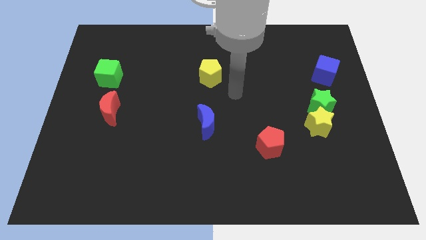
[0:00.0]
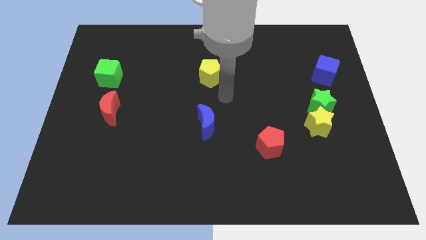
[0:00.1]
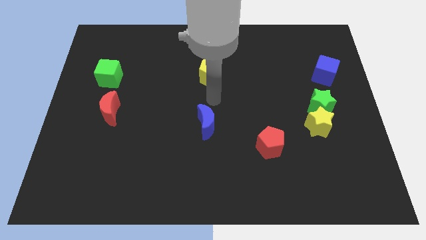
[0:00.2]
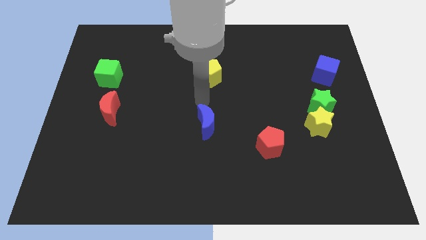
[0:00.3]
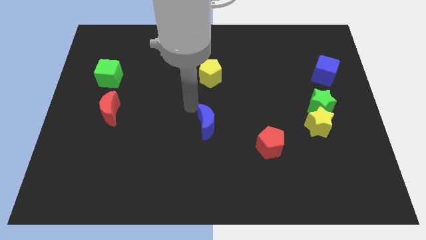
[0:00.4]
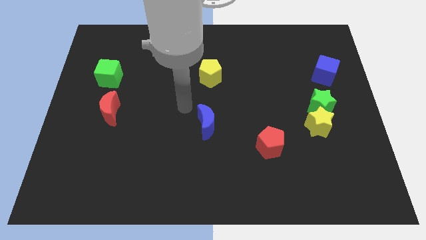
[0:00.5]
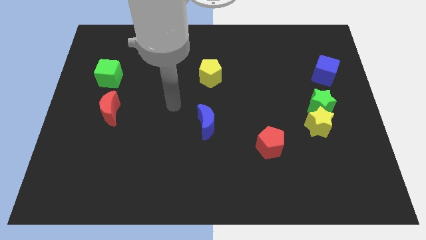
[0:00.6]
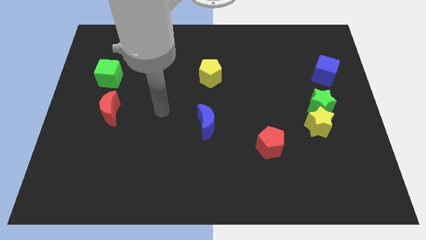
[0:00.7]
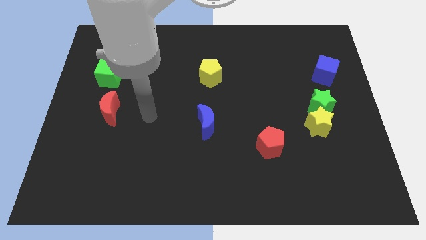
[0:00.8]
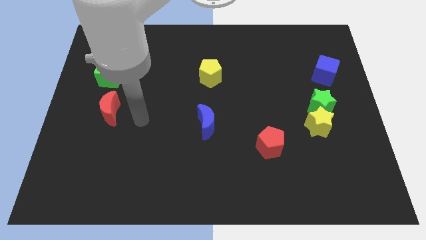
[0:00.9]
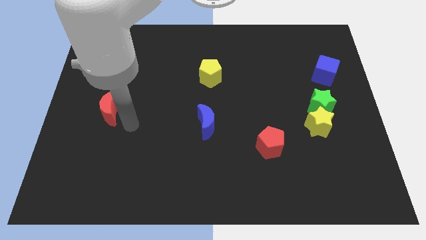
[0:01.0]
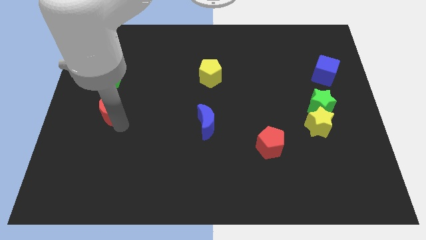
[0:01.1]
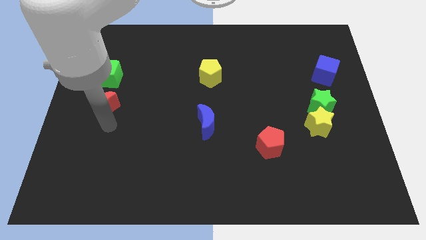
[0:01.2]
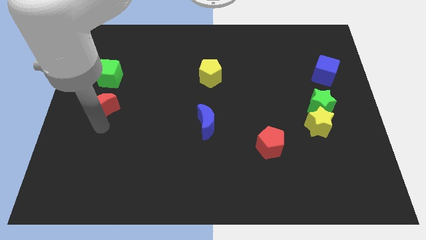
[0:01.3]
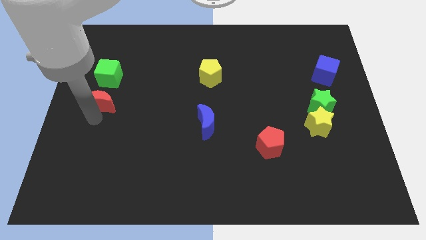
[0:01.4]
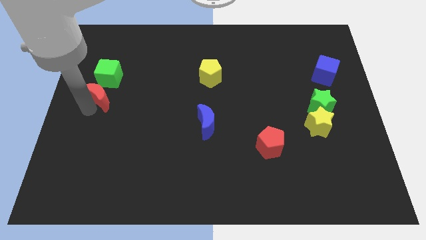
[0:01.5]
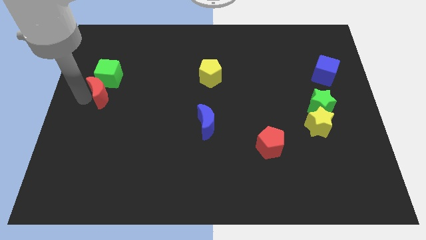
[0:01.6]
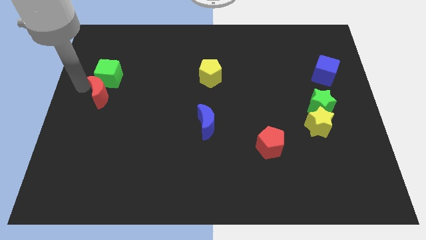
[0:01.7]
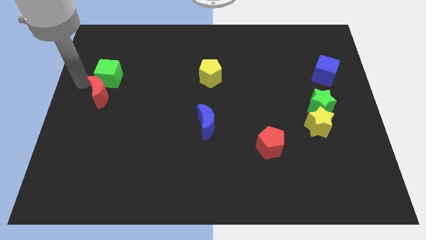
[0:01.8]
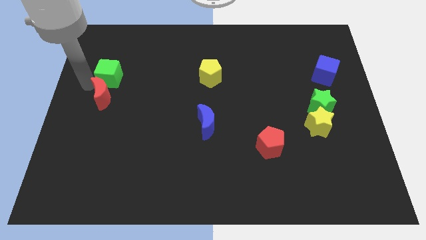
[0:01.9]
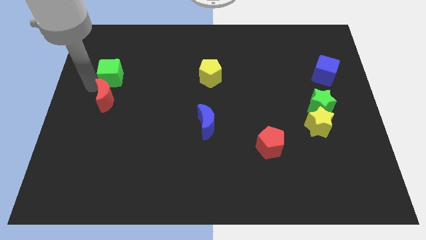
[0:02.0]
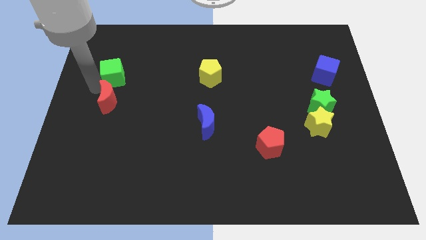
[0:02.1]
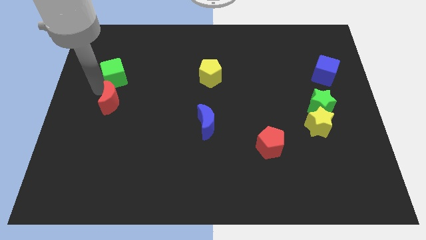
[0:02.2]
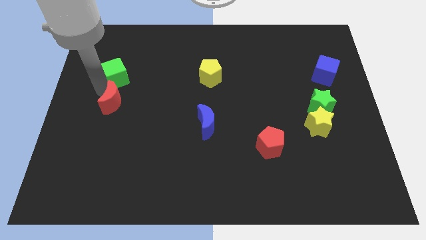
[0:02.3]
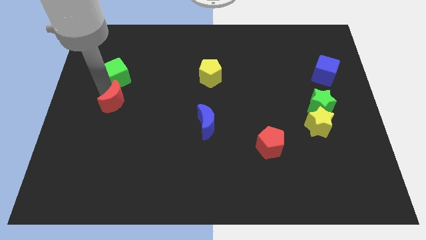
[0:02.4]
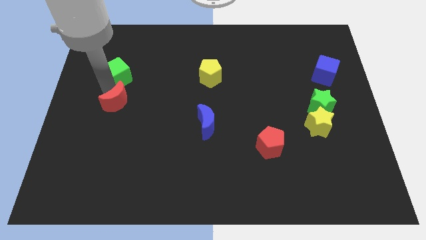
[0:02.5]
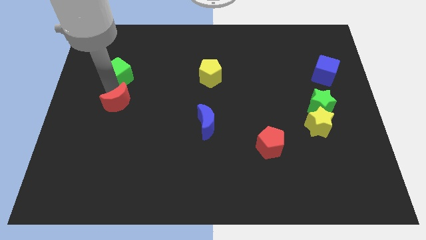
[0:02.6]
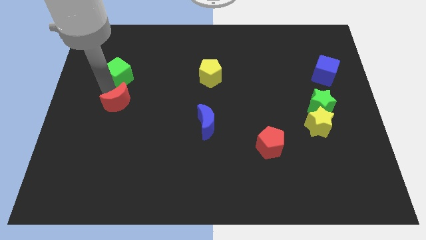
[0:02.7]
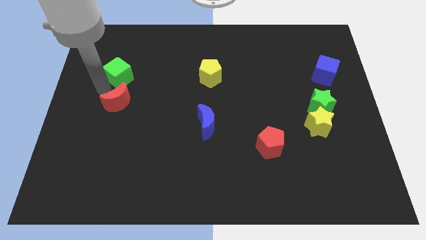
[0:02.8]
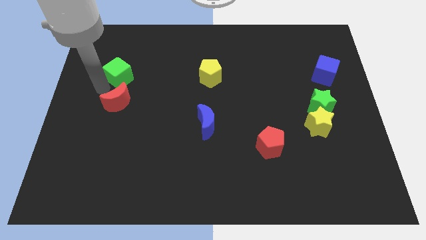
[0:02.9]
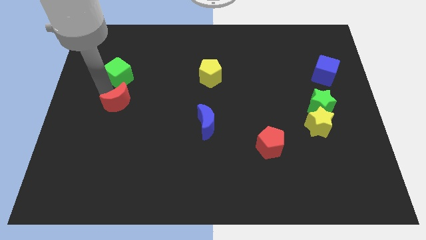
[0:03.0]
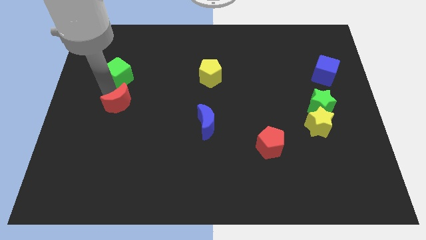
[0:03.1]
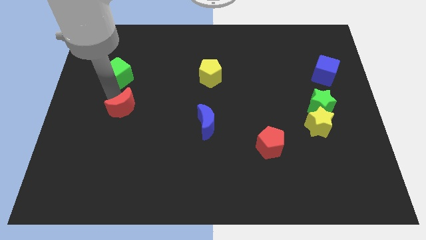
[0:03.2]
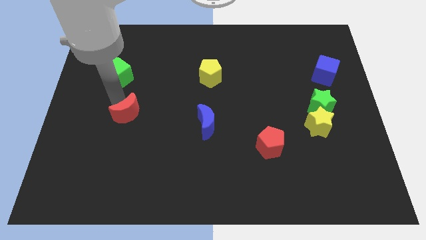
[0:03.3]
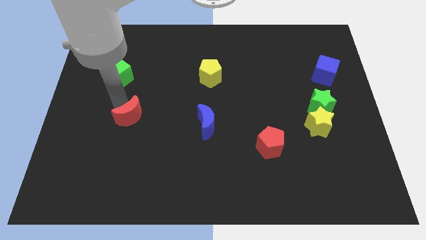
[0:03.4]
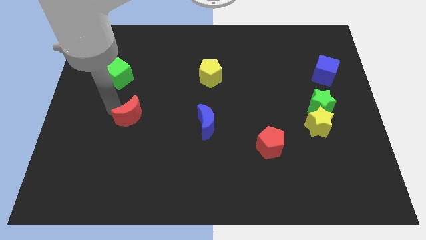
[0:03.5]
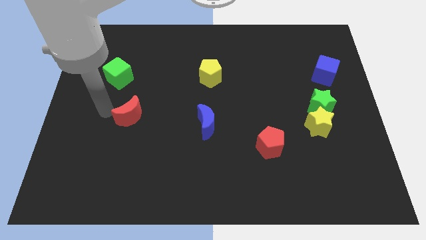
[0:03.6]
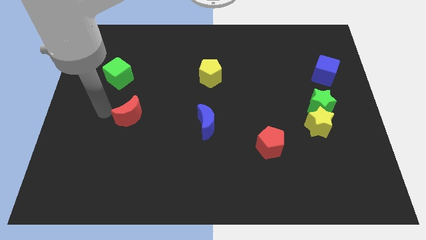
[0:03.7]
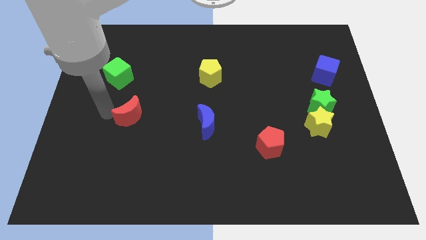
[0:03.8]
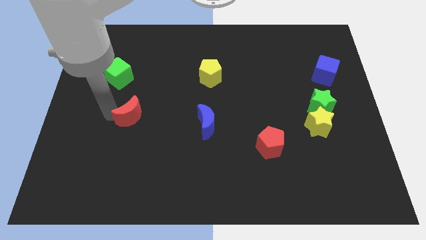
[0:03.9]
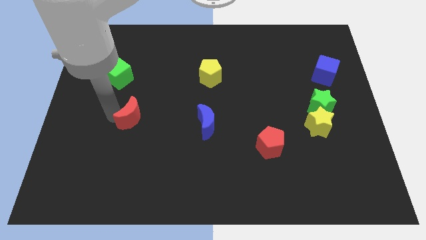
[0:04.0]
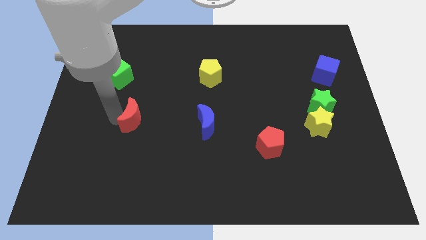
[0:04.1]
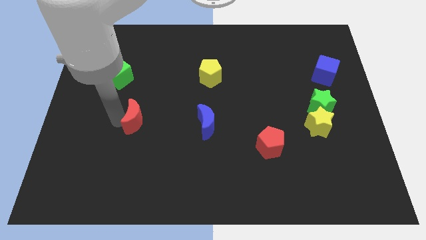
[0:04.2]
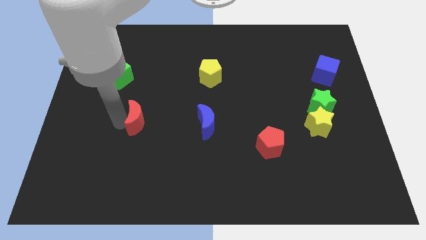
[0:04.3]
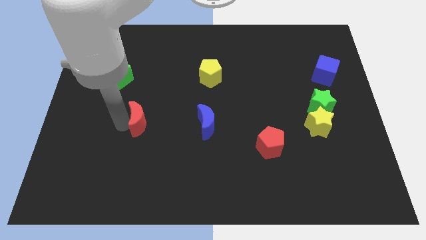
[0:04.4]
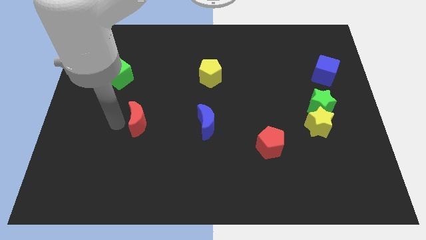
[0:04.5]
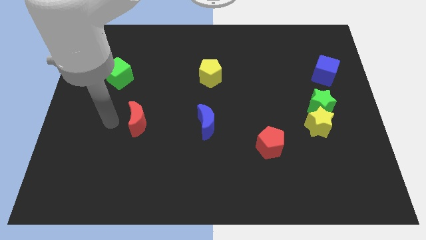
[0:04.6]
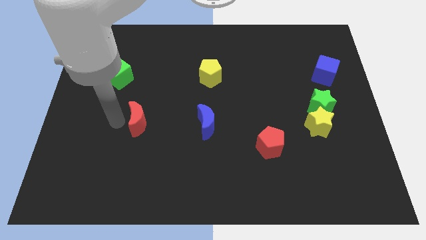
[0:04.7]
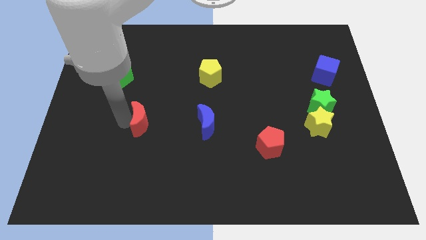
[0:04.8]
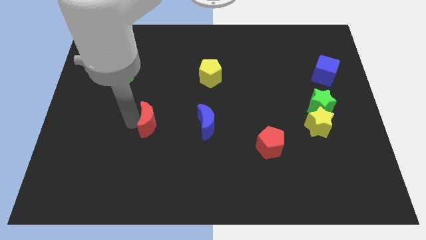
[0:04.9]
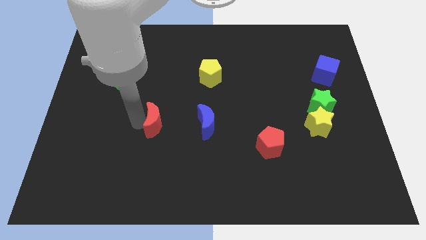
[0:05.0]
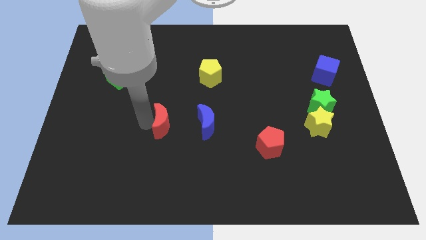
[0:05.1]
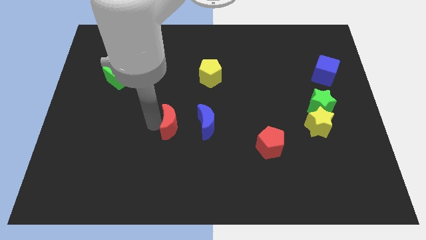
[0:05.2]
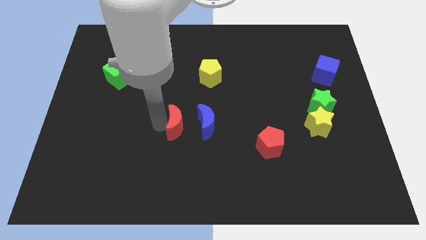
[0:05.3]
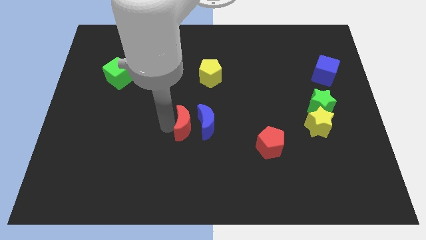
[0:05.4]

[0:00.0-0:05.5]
put the red moon close to the blue moon

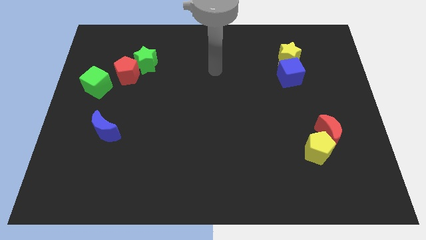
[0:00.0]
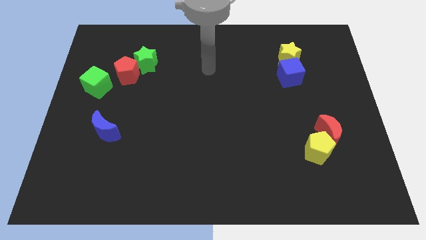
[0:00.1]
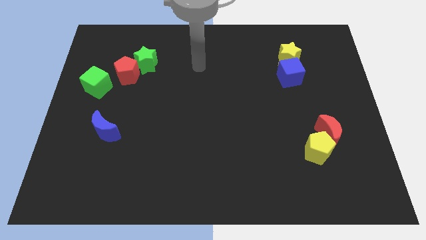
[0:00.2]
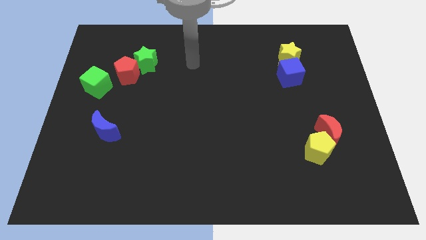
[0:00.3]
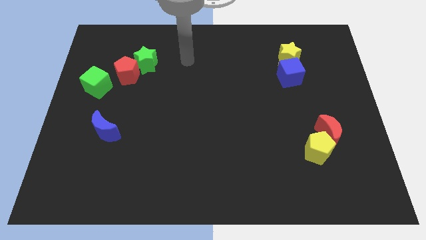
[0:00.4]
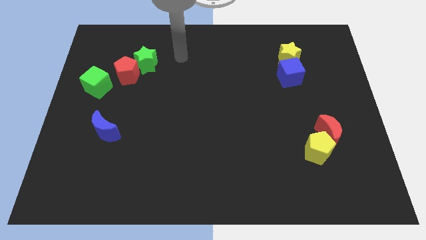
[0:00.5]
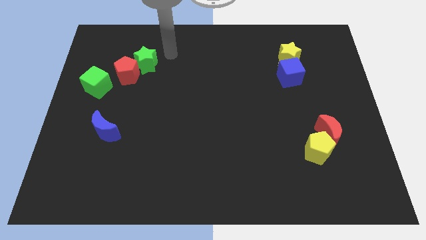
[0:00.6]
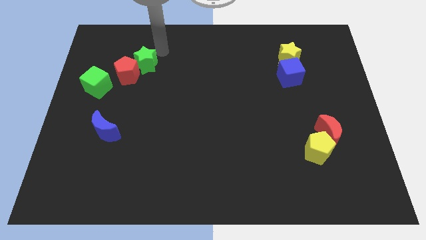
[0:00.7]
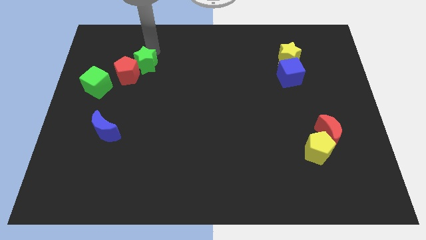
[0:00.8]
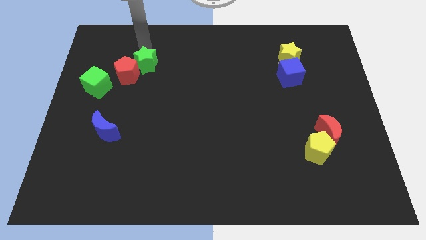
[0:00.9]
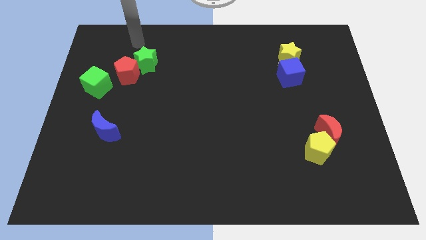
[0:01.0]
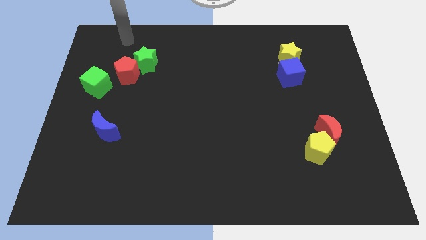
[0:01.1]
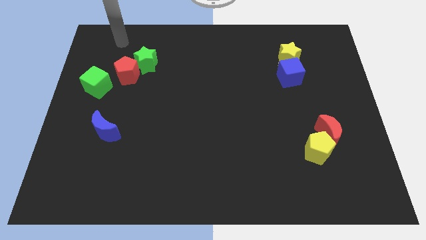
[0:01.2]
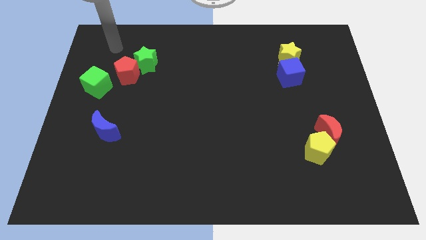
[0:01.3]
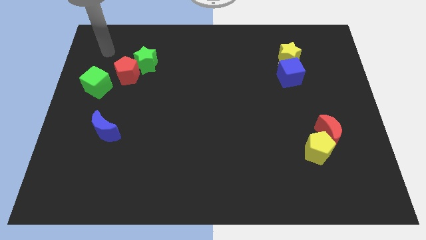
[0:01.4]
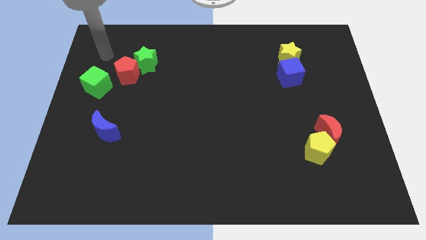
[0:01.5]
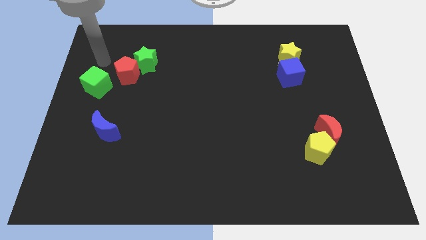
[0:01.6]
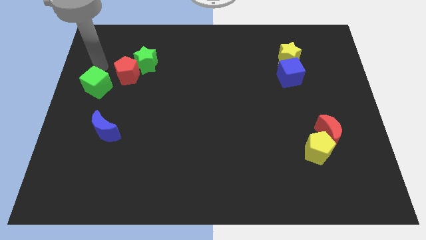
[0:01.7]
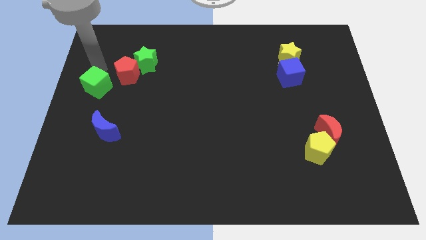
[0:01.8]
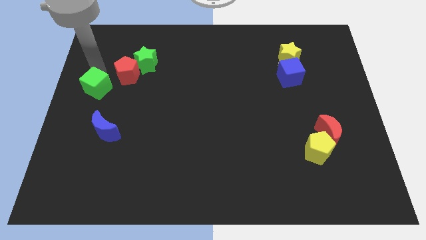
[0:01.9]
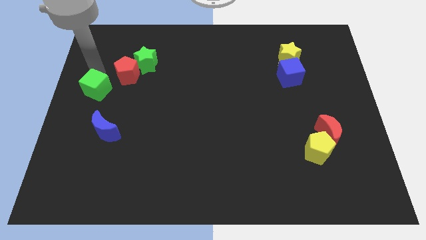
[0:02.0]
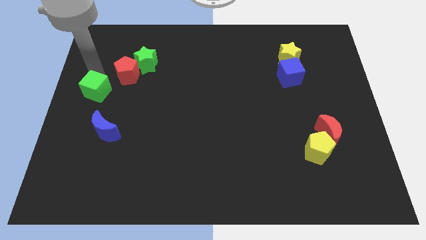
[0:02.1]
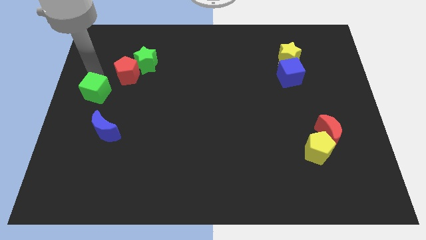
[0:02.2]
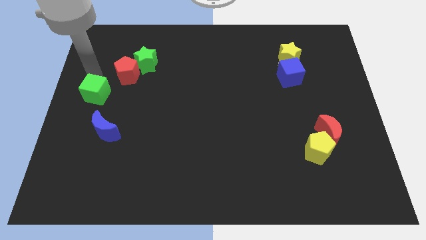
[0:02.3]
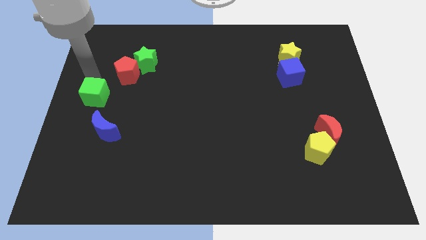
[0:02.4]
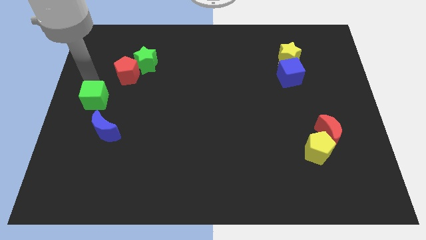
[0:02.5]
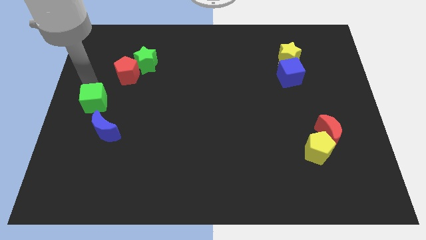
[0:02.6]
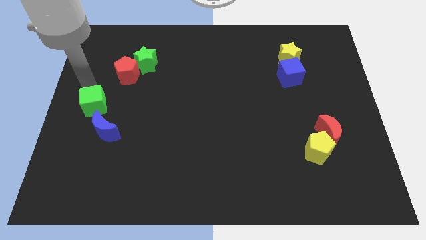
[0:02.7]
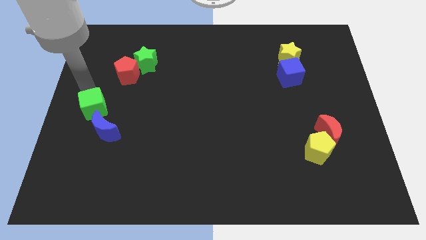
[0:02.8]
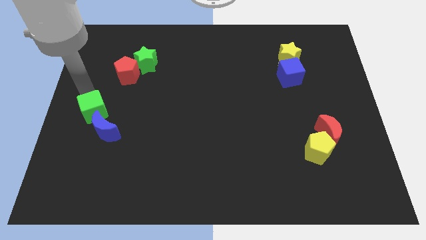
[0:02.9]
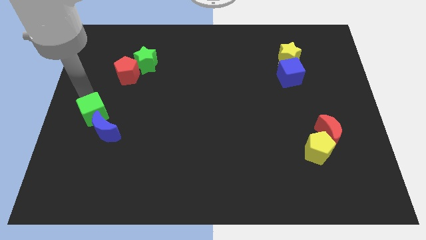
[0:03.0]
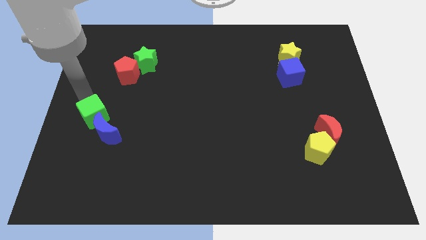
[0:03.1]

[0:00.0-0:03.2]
push the green cube towards the blue moon

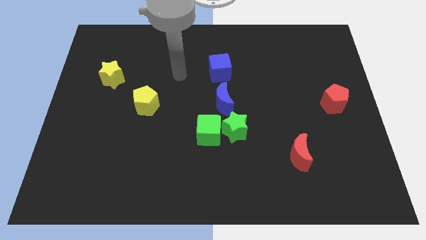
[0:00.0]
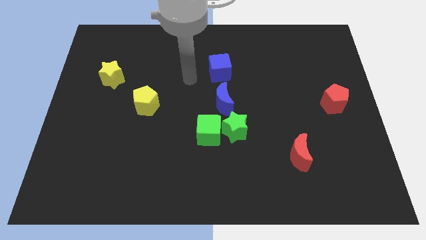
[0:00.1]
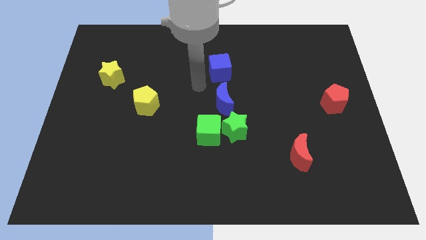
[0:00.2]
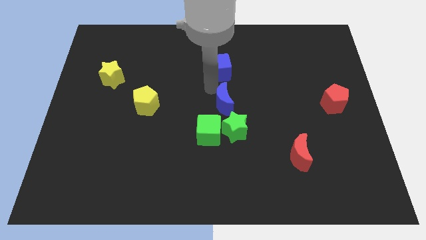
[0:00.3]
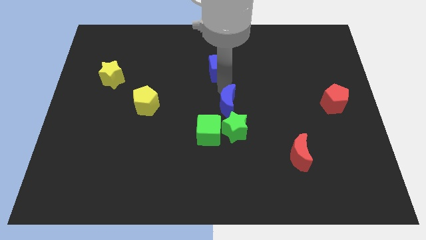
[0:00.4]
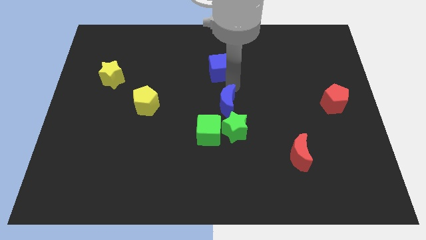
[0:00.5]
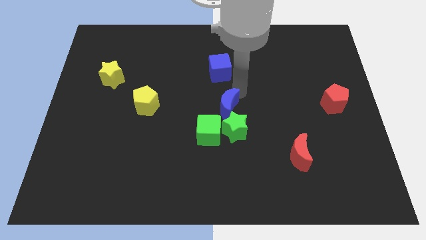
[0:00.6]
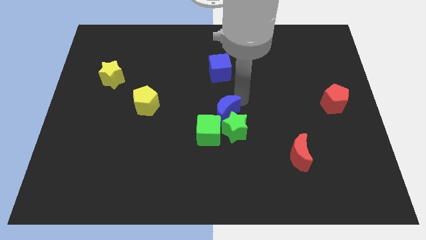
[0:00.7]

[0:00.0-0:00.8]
put the green star close to the blue moon
